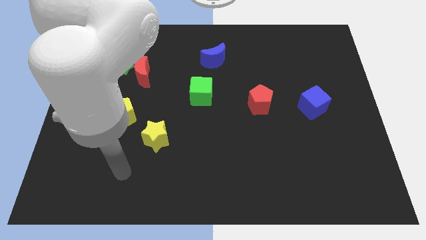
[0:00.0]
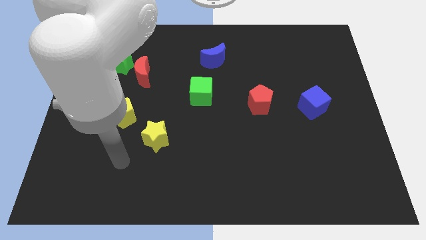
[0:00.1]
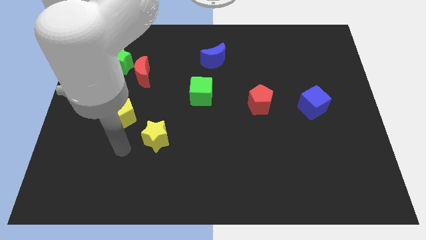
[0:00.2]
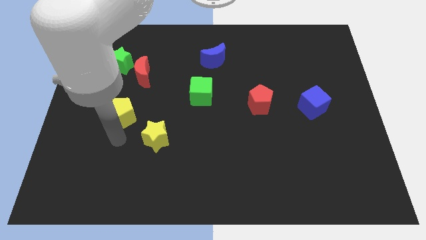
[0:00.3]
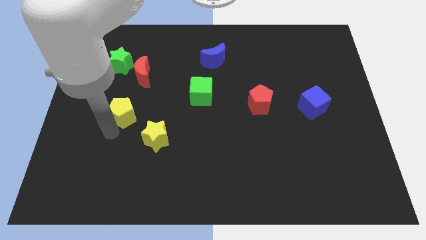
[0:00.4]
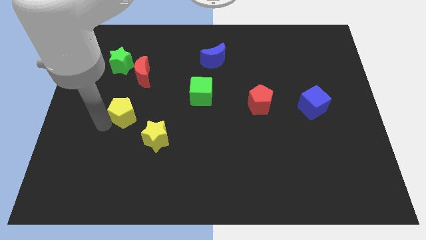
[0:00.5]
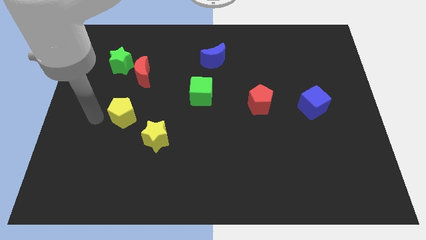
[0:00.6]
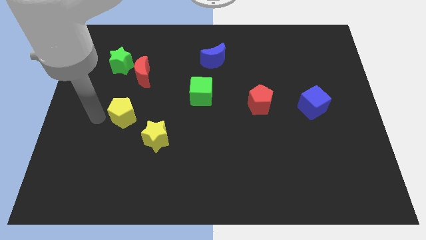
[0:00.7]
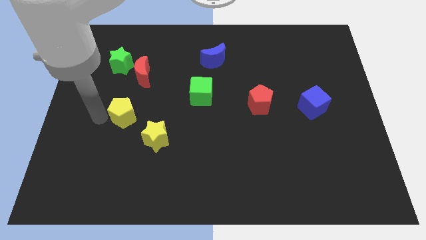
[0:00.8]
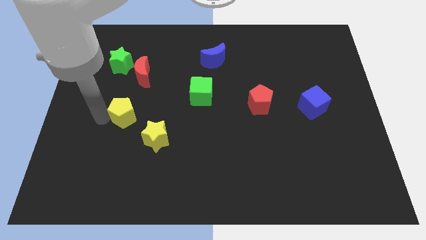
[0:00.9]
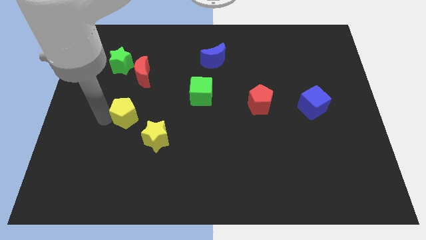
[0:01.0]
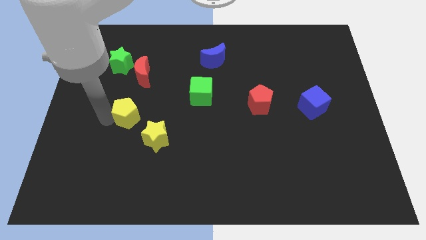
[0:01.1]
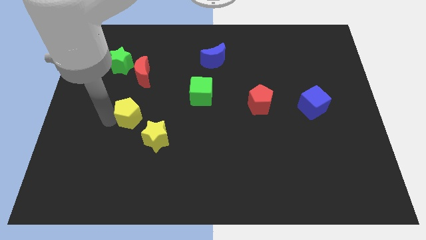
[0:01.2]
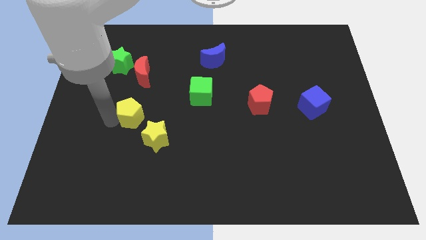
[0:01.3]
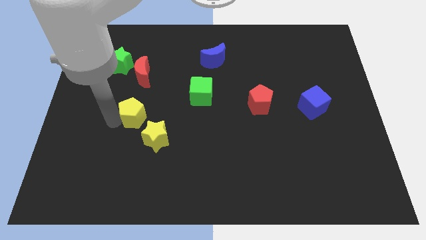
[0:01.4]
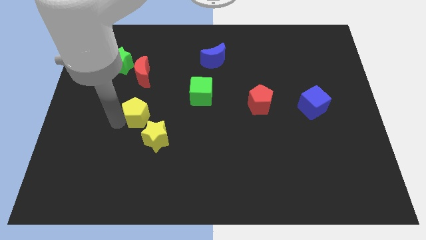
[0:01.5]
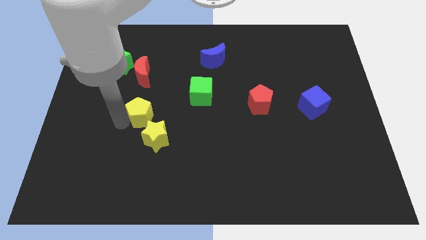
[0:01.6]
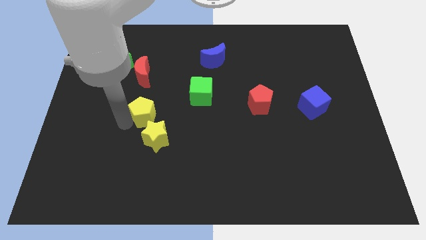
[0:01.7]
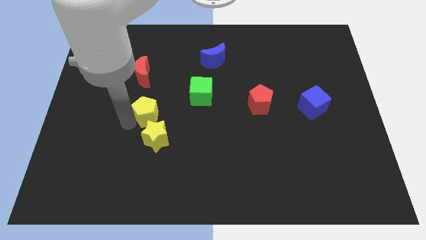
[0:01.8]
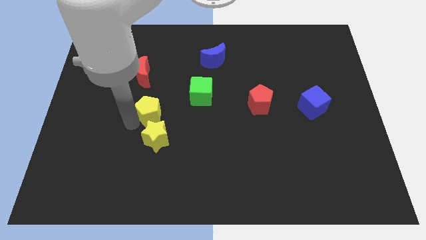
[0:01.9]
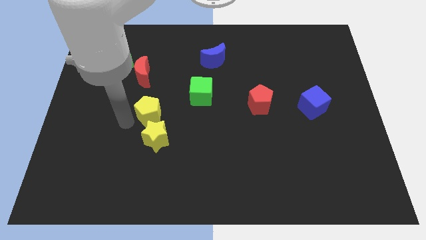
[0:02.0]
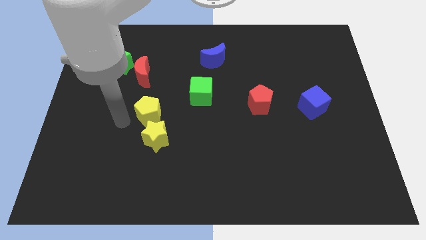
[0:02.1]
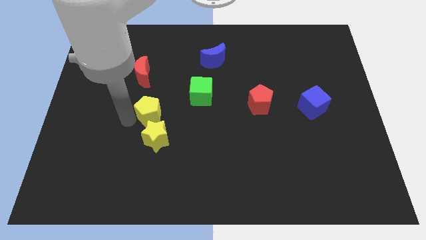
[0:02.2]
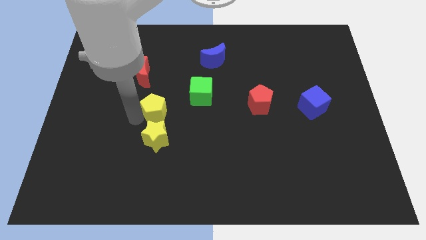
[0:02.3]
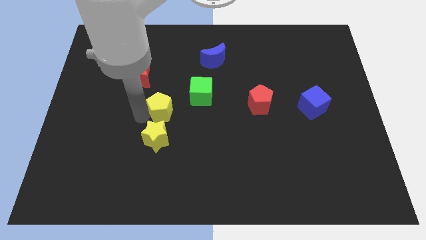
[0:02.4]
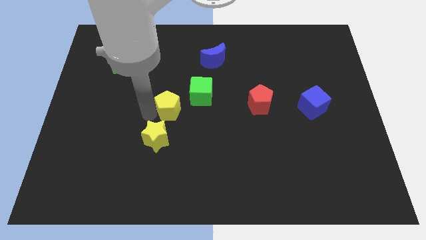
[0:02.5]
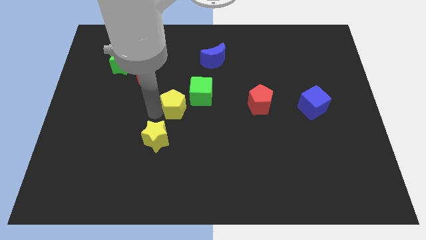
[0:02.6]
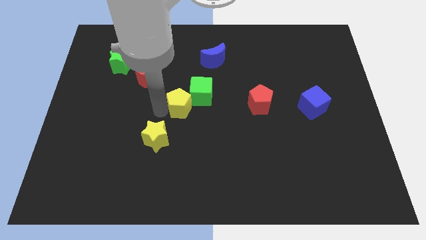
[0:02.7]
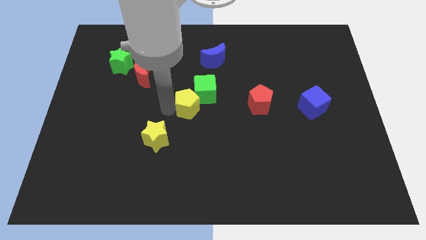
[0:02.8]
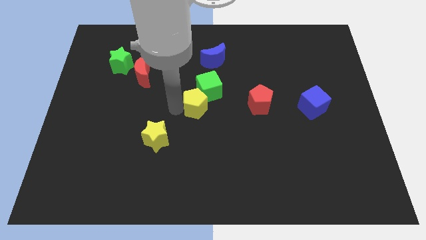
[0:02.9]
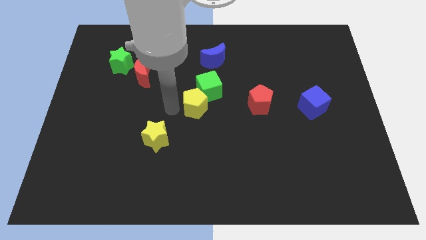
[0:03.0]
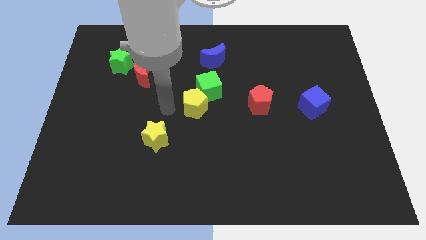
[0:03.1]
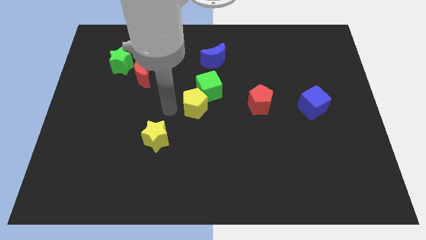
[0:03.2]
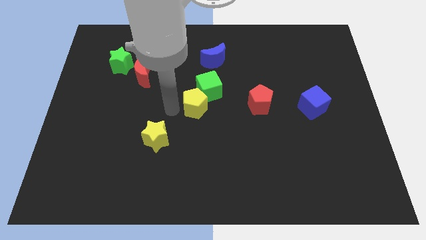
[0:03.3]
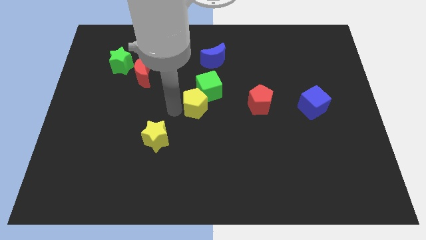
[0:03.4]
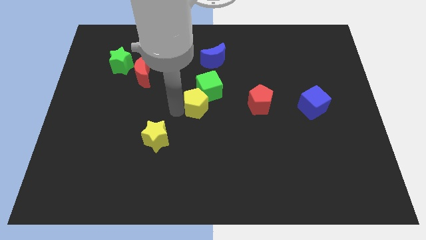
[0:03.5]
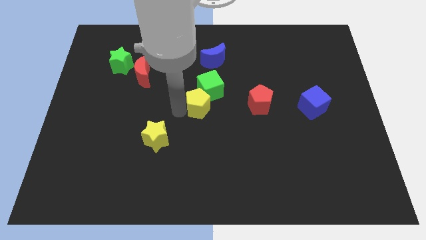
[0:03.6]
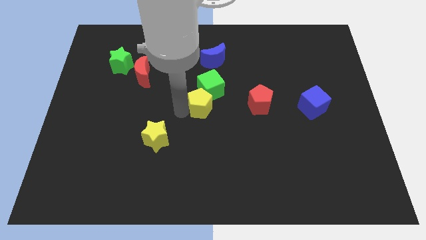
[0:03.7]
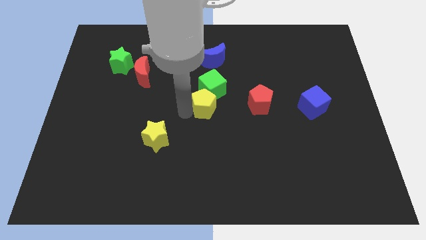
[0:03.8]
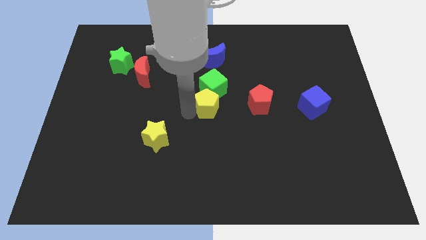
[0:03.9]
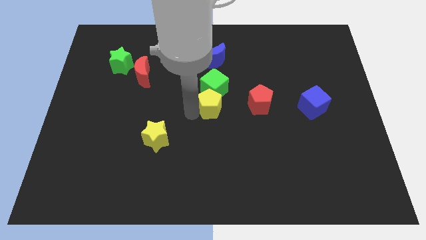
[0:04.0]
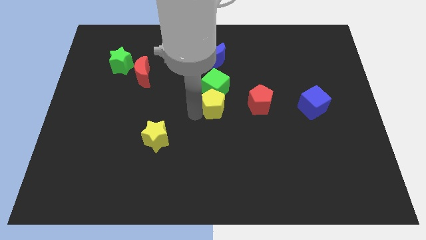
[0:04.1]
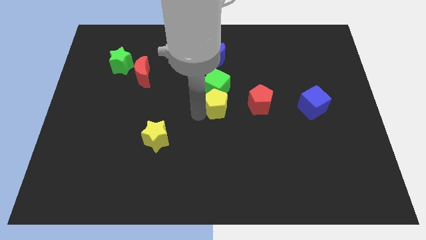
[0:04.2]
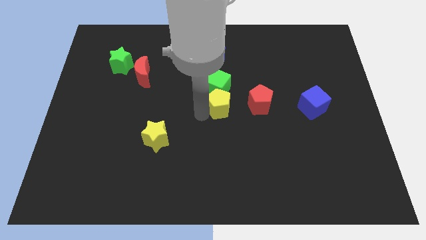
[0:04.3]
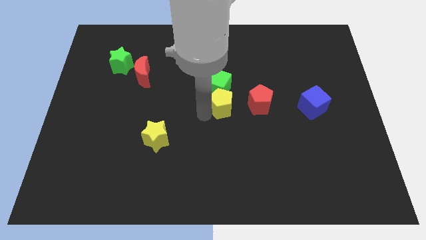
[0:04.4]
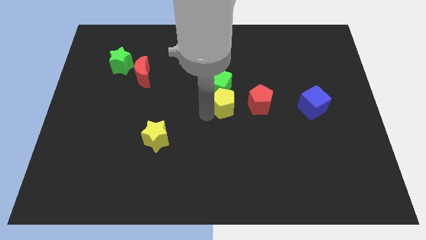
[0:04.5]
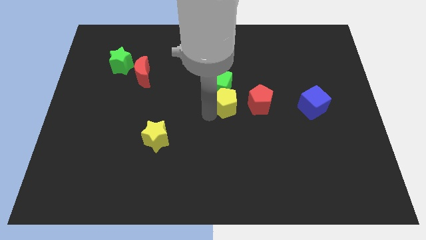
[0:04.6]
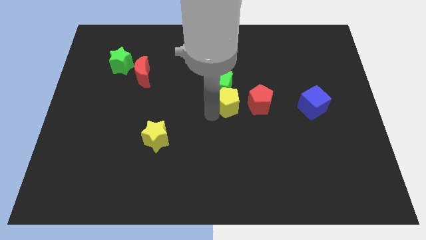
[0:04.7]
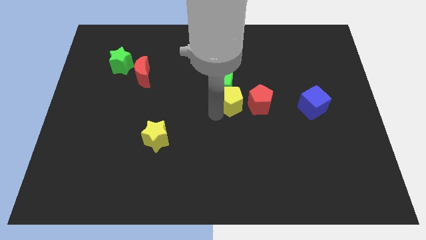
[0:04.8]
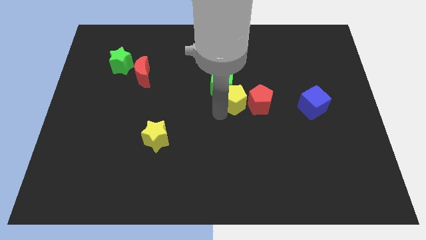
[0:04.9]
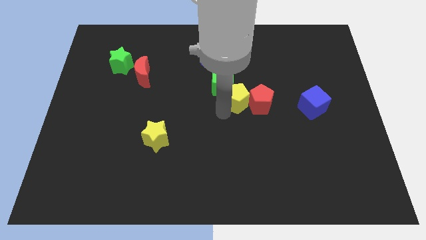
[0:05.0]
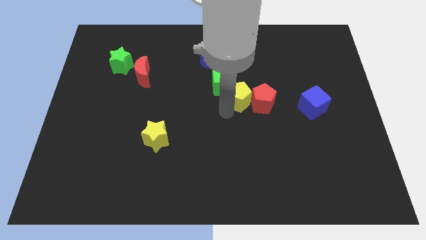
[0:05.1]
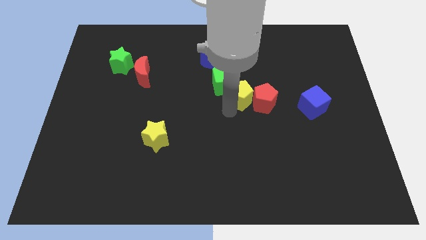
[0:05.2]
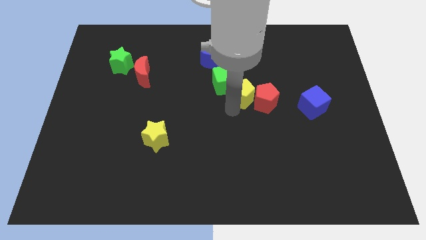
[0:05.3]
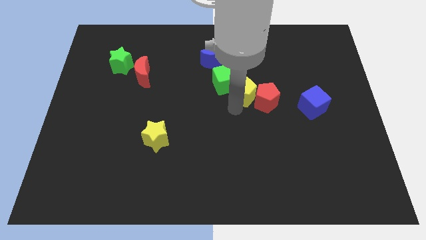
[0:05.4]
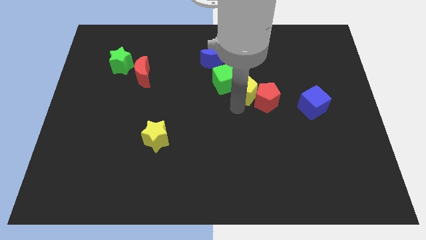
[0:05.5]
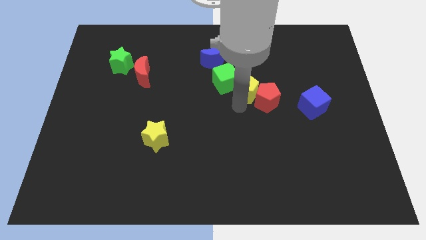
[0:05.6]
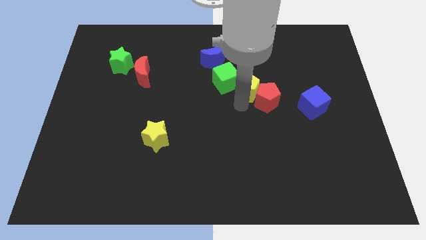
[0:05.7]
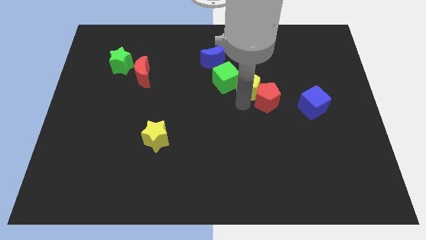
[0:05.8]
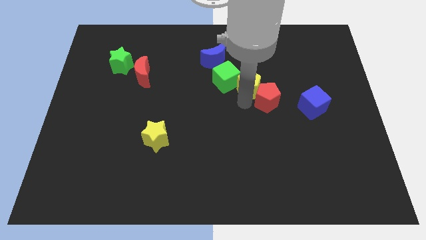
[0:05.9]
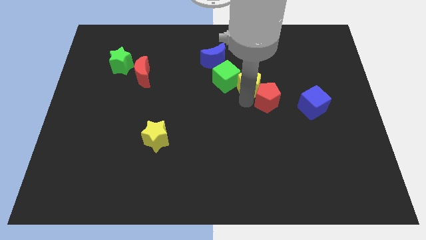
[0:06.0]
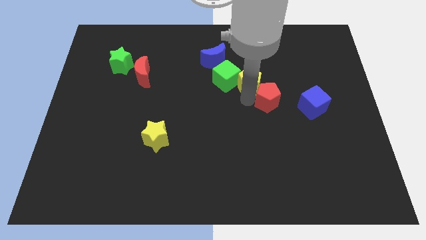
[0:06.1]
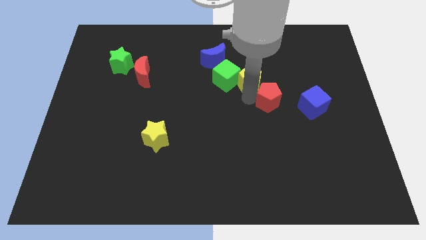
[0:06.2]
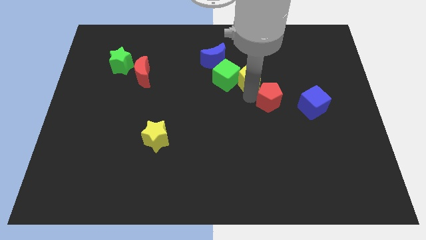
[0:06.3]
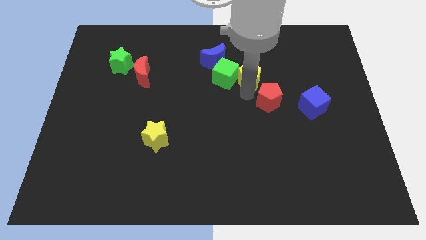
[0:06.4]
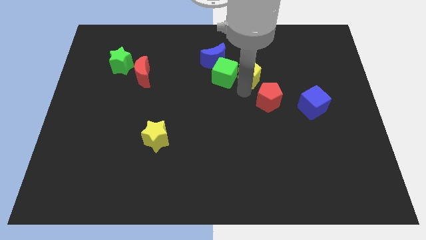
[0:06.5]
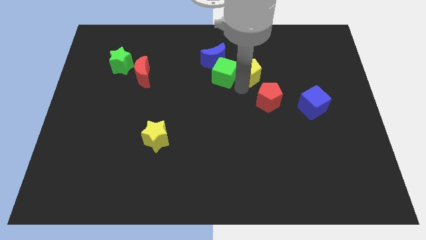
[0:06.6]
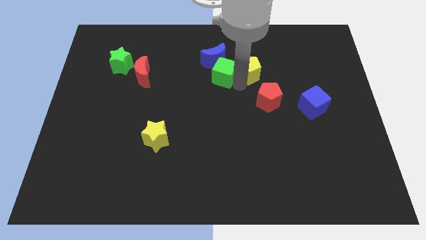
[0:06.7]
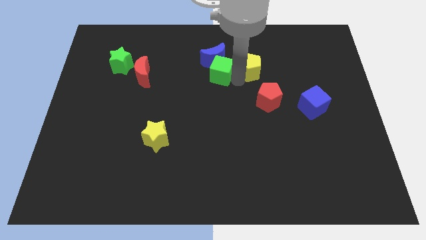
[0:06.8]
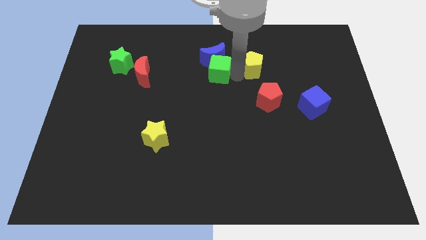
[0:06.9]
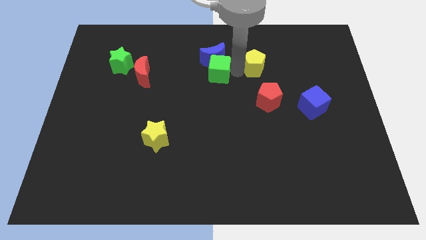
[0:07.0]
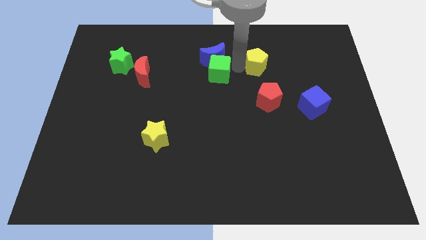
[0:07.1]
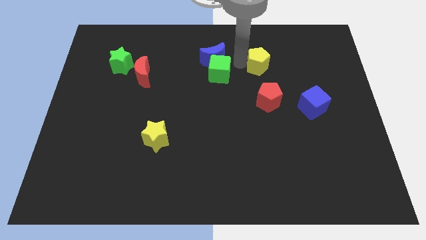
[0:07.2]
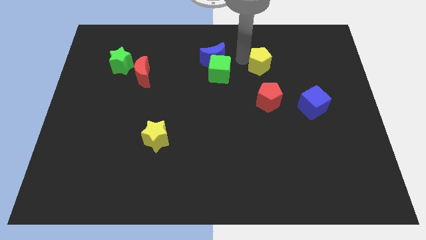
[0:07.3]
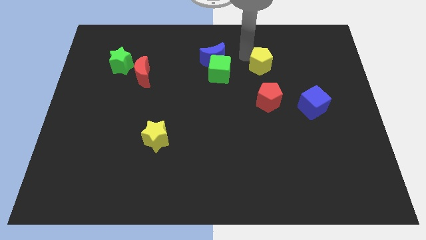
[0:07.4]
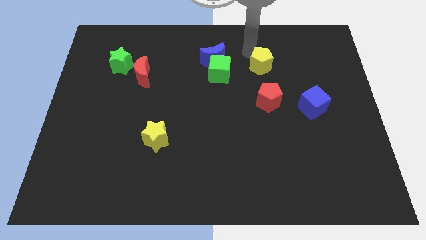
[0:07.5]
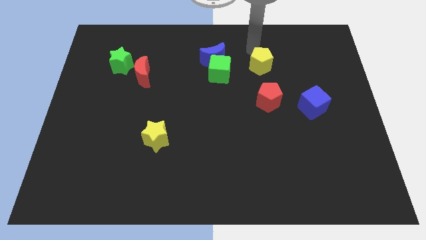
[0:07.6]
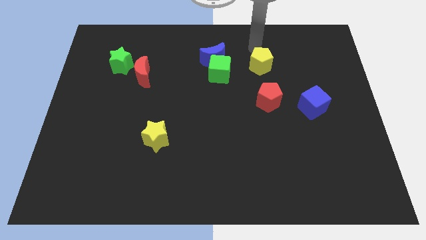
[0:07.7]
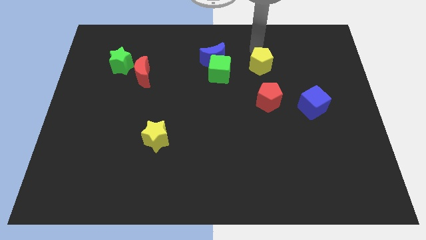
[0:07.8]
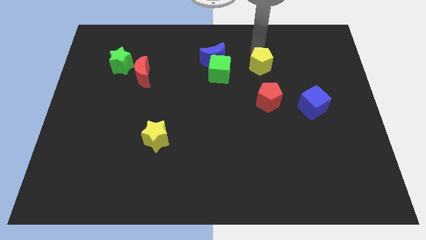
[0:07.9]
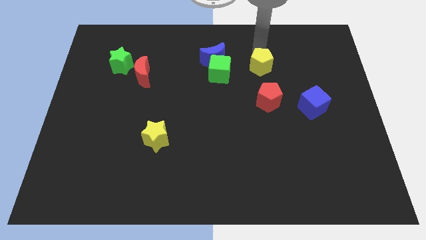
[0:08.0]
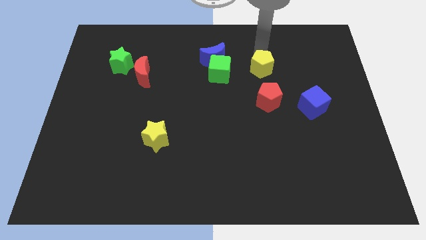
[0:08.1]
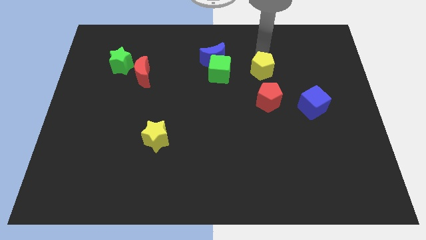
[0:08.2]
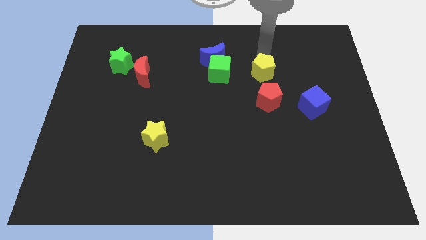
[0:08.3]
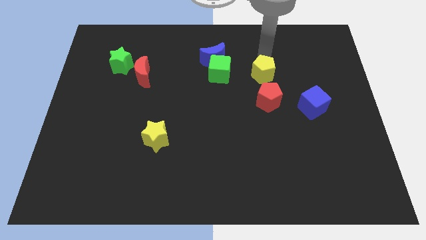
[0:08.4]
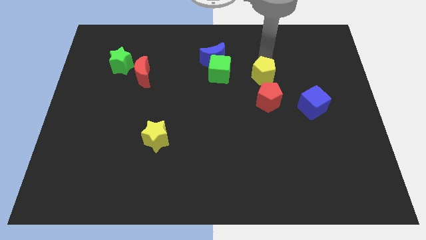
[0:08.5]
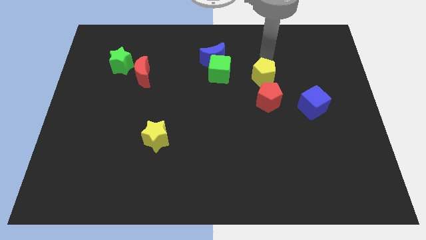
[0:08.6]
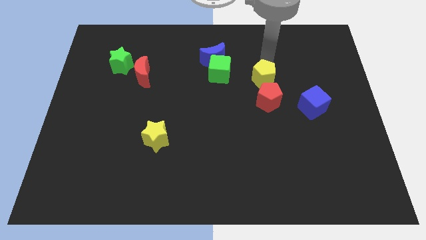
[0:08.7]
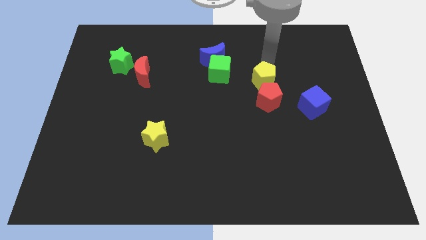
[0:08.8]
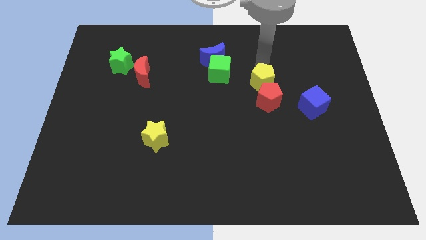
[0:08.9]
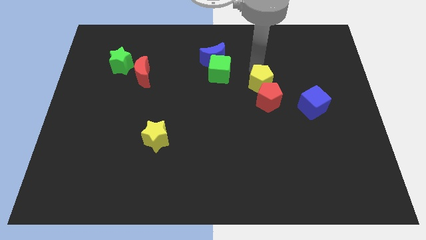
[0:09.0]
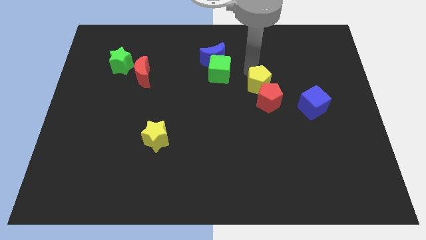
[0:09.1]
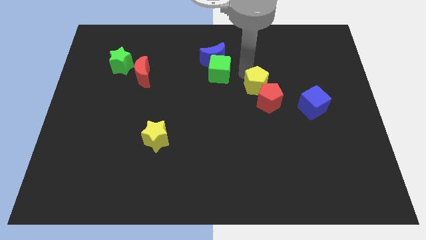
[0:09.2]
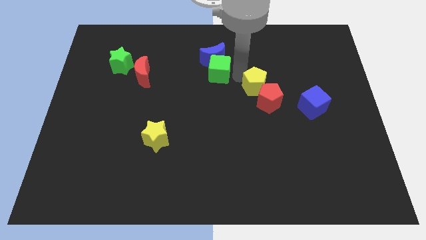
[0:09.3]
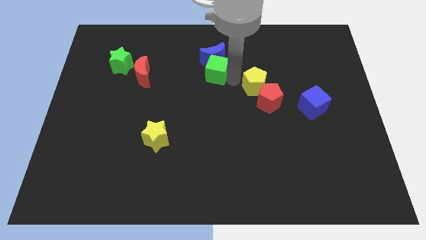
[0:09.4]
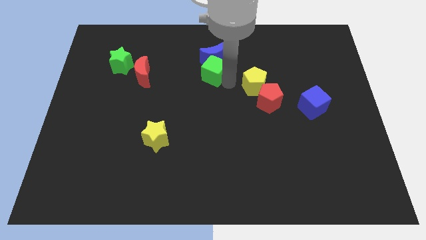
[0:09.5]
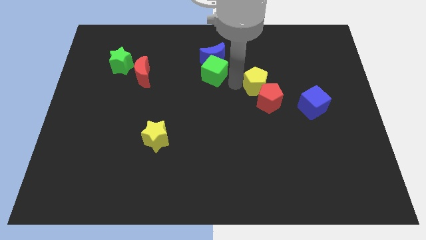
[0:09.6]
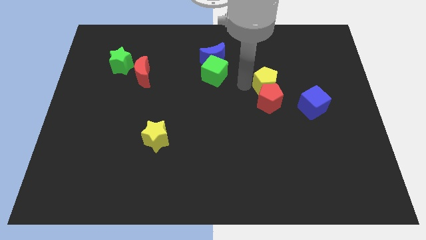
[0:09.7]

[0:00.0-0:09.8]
put the yellow pentagon diagonally up and to the left of the blue cube
